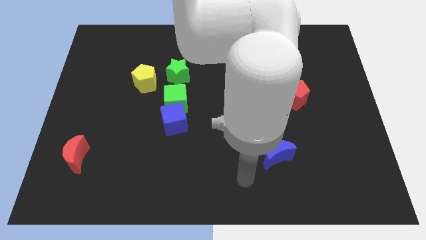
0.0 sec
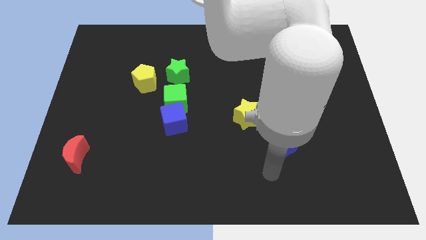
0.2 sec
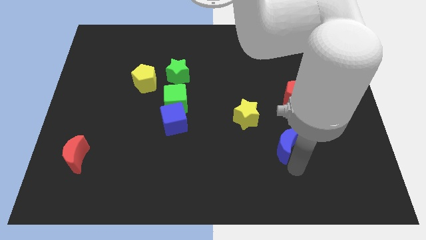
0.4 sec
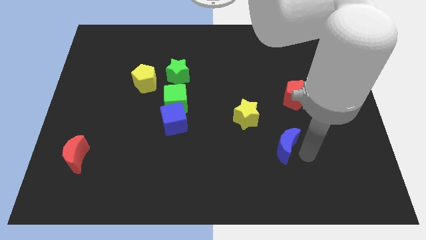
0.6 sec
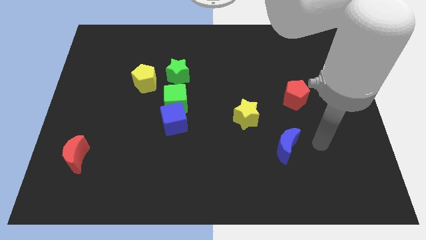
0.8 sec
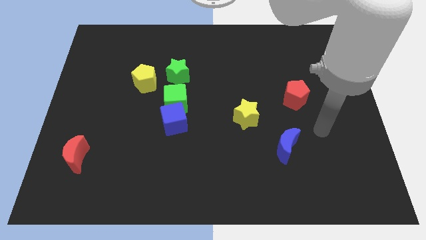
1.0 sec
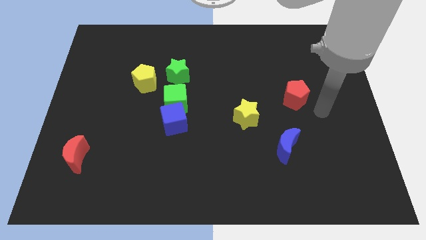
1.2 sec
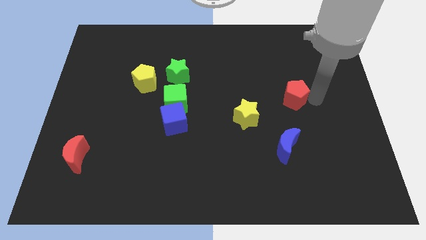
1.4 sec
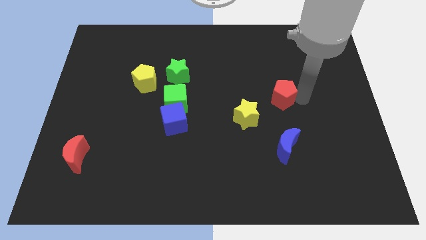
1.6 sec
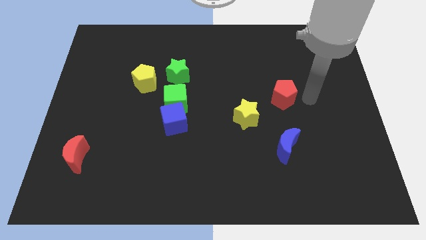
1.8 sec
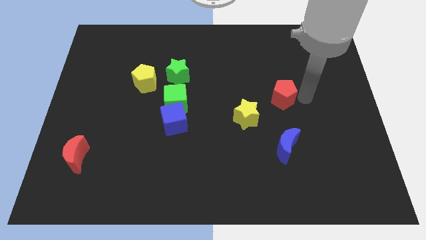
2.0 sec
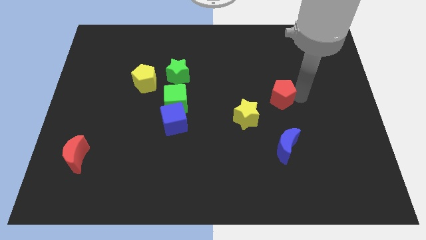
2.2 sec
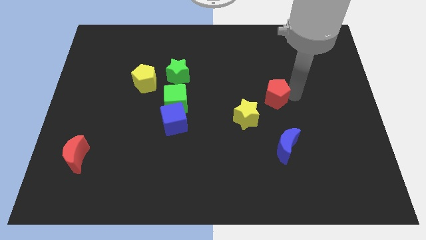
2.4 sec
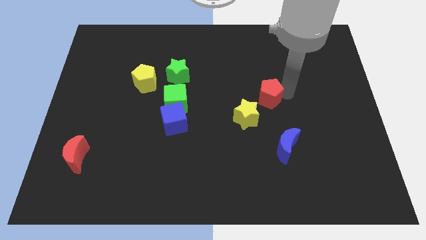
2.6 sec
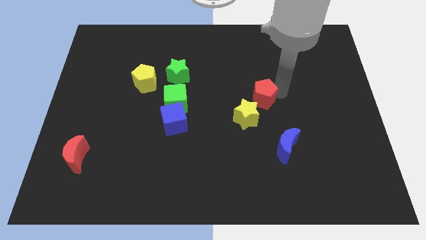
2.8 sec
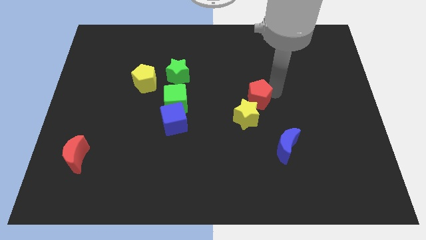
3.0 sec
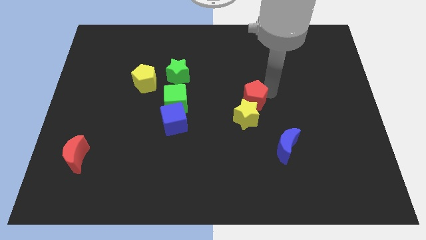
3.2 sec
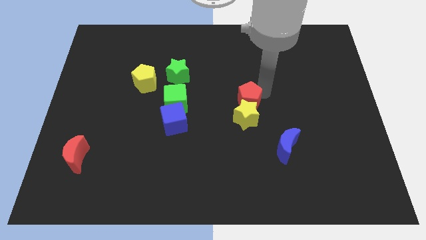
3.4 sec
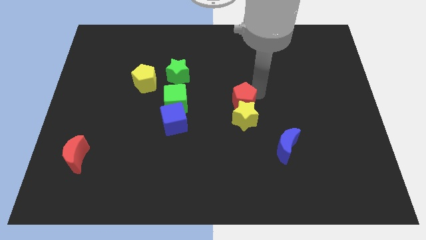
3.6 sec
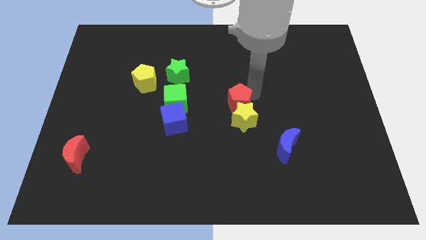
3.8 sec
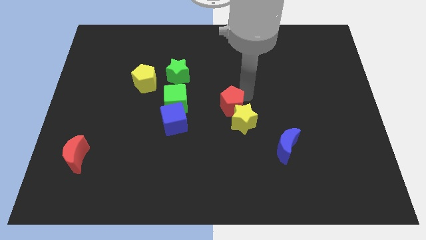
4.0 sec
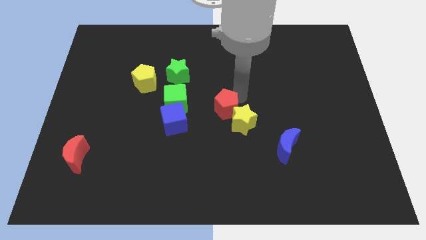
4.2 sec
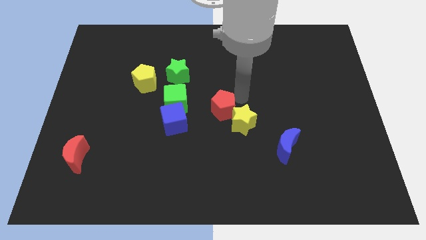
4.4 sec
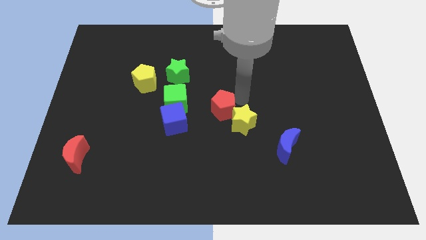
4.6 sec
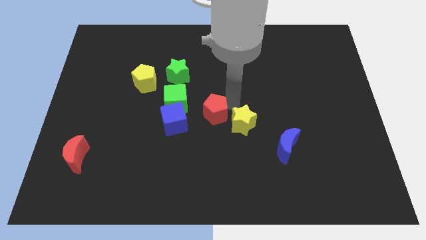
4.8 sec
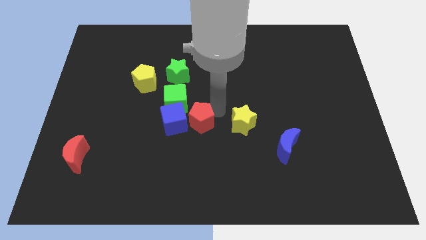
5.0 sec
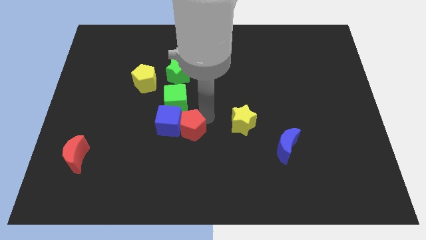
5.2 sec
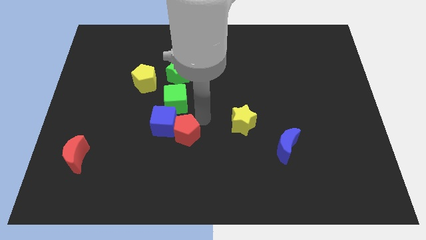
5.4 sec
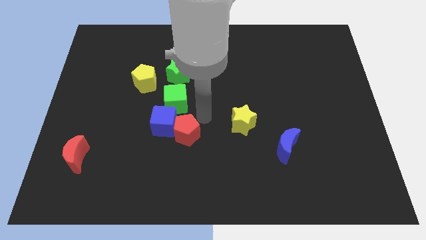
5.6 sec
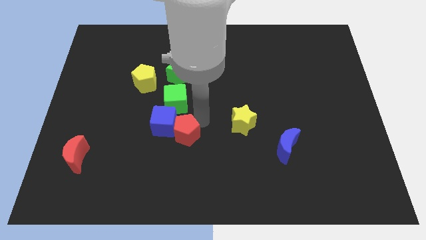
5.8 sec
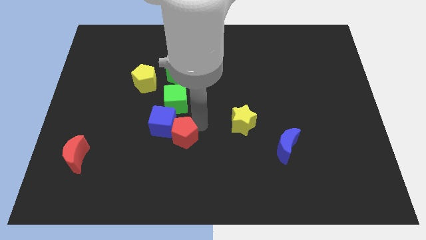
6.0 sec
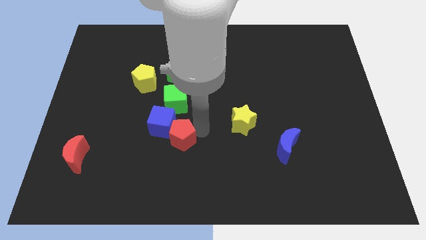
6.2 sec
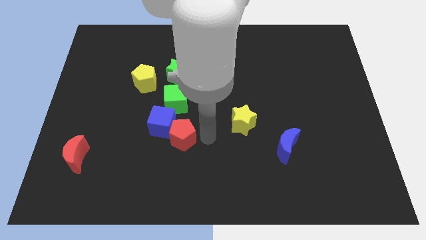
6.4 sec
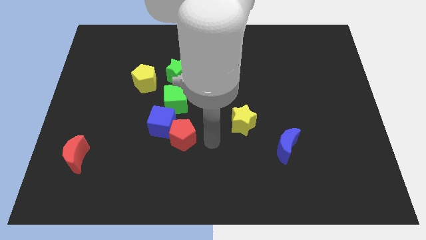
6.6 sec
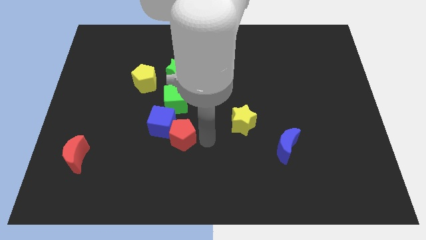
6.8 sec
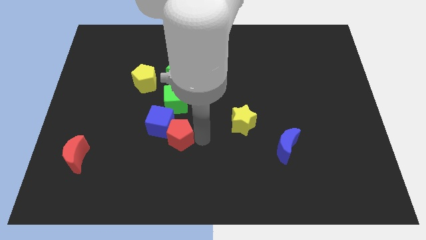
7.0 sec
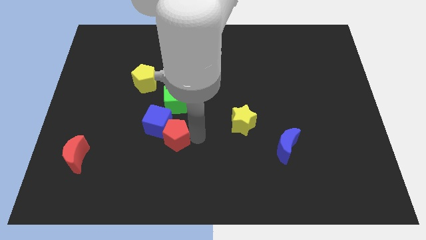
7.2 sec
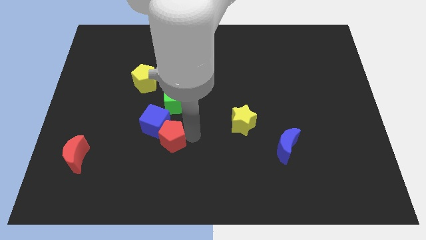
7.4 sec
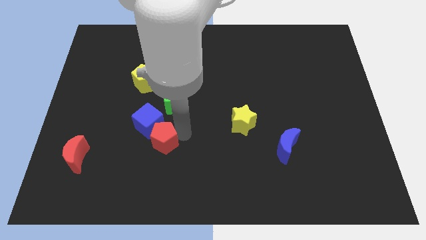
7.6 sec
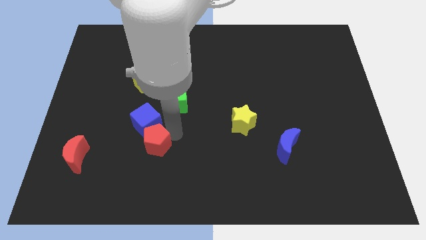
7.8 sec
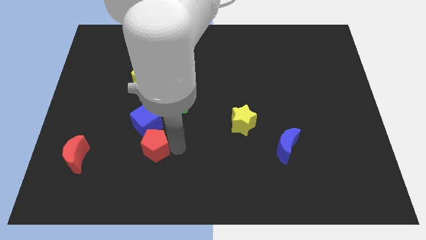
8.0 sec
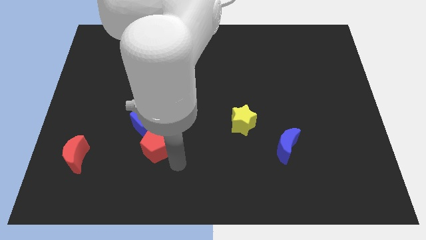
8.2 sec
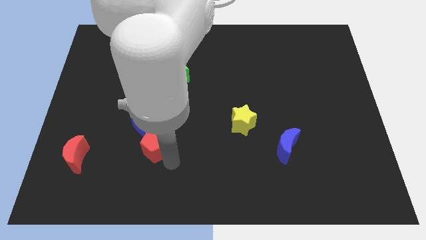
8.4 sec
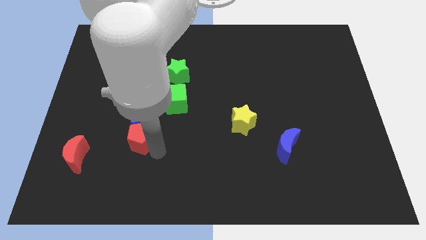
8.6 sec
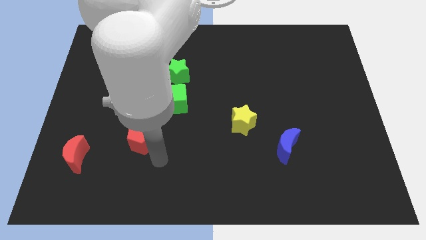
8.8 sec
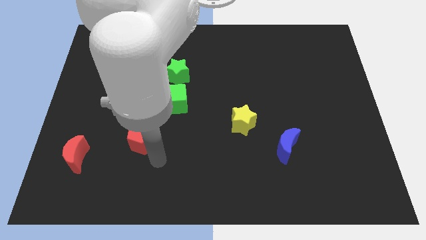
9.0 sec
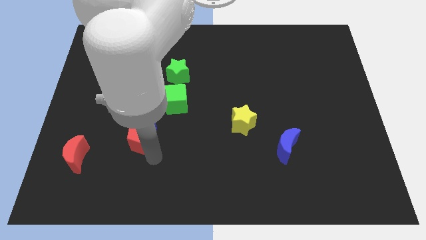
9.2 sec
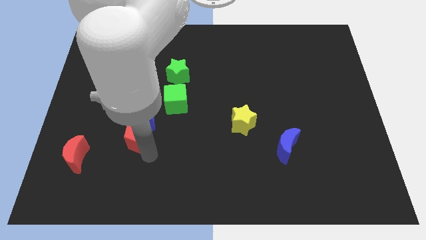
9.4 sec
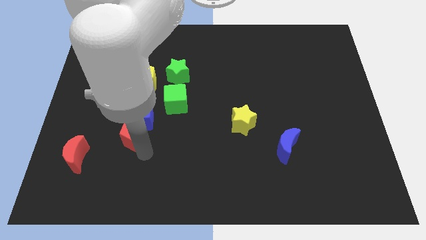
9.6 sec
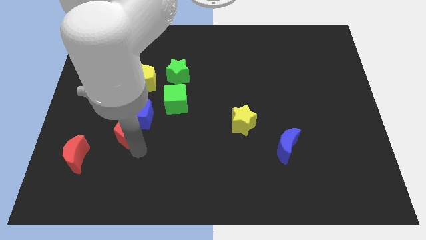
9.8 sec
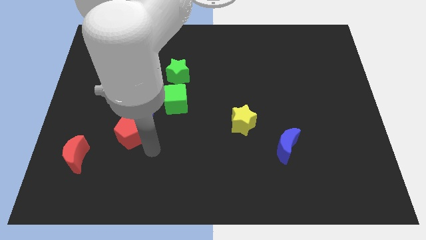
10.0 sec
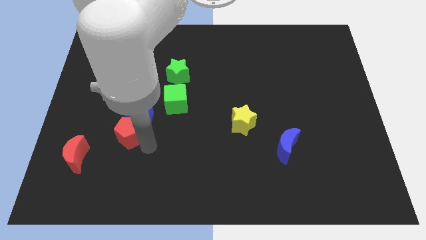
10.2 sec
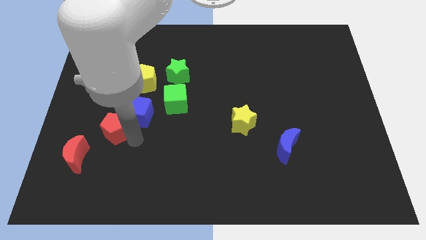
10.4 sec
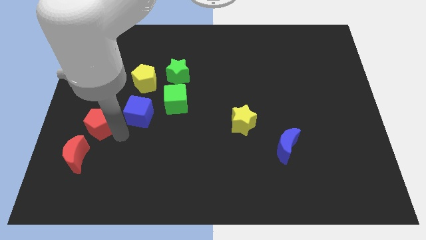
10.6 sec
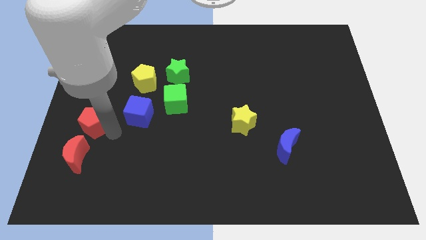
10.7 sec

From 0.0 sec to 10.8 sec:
move the red pentagon to the left side of the board
